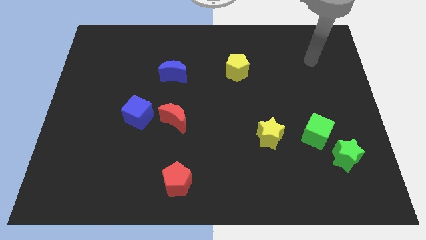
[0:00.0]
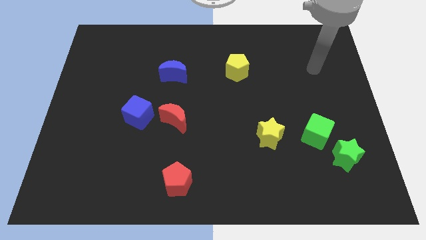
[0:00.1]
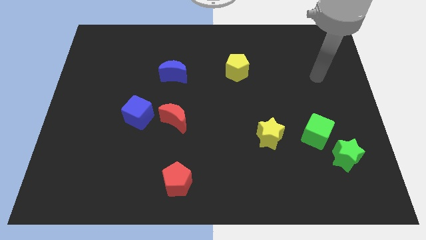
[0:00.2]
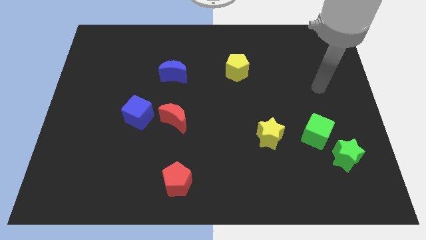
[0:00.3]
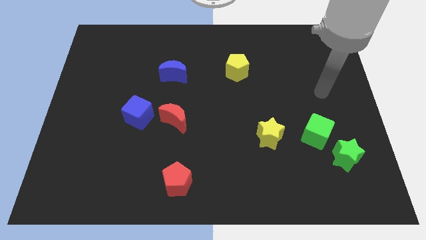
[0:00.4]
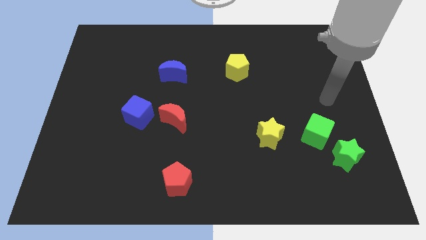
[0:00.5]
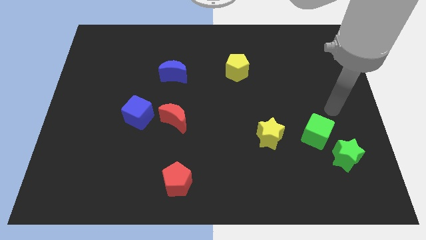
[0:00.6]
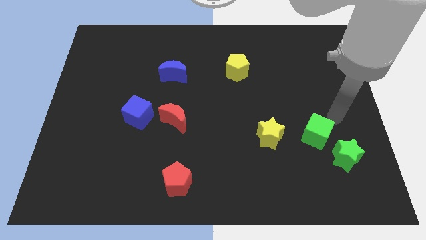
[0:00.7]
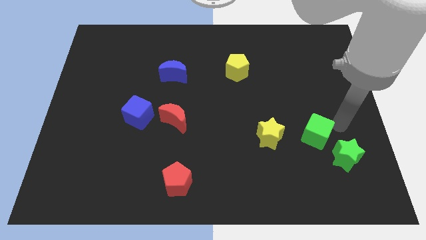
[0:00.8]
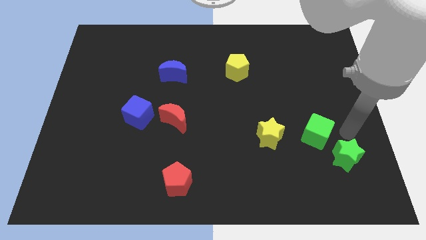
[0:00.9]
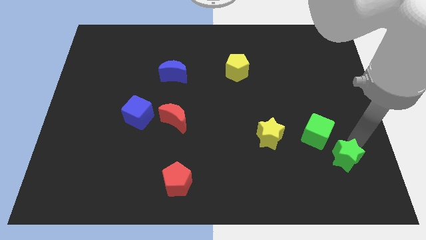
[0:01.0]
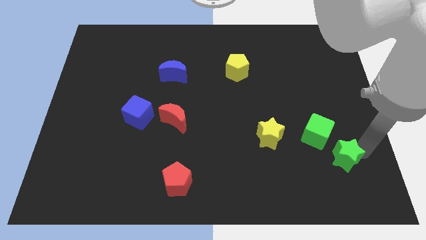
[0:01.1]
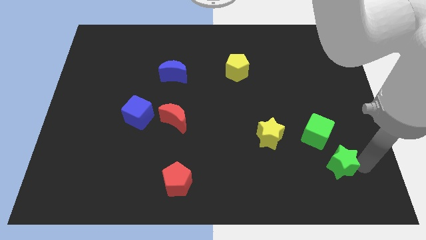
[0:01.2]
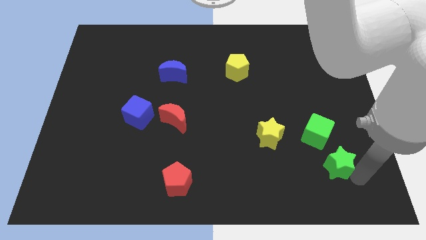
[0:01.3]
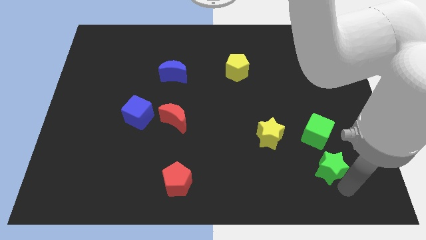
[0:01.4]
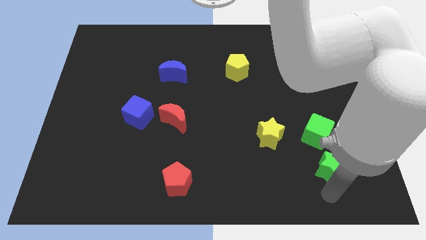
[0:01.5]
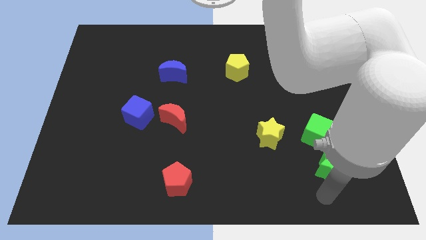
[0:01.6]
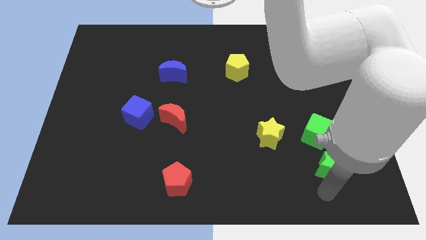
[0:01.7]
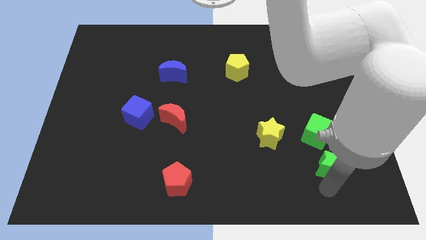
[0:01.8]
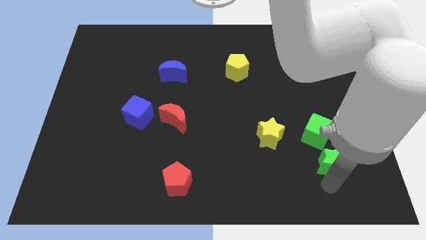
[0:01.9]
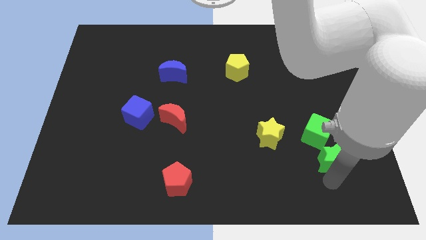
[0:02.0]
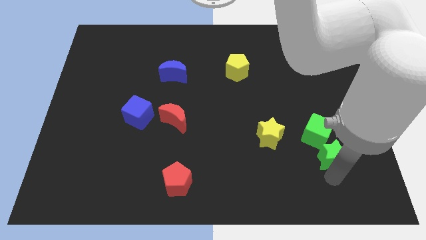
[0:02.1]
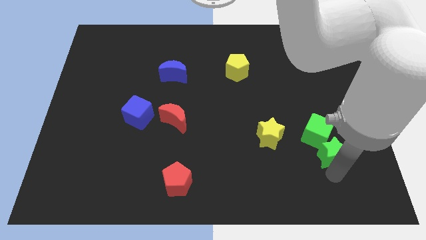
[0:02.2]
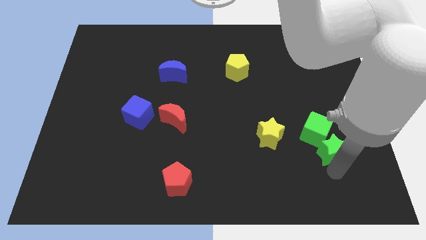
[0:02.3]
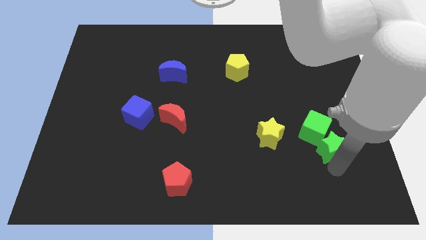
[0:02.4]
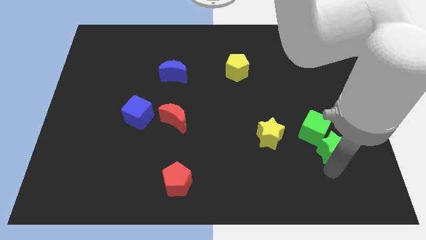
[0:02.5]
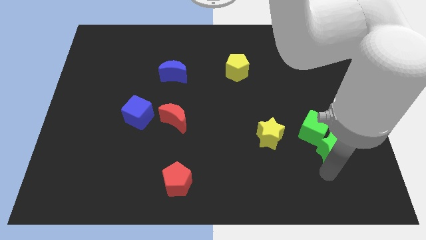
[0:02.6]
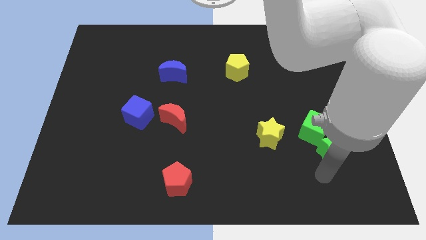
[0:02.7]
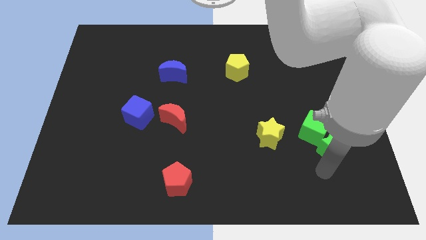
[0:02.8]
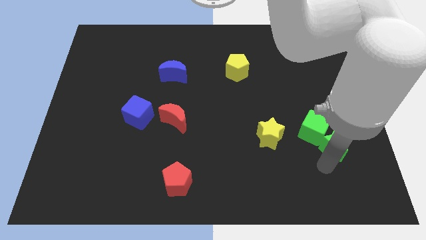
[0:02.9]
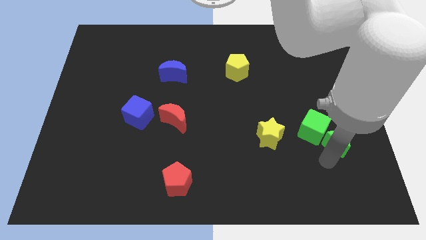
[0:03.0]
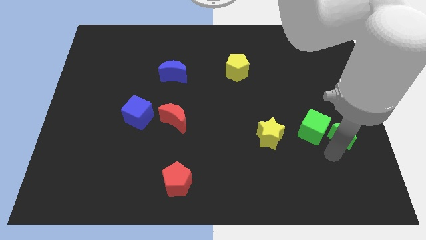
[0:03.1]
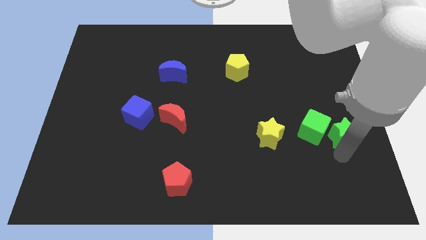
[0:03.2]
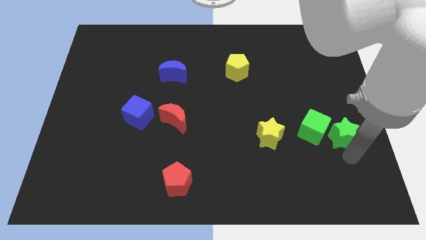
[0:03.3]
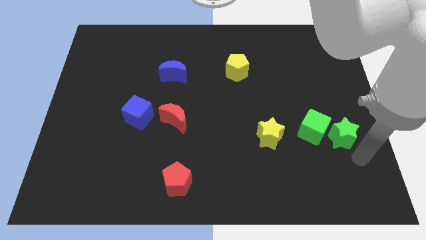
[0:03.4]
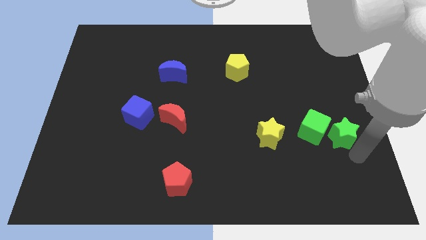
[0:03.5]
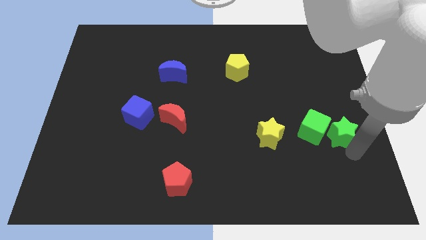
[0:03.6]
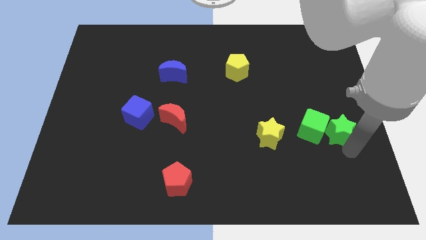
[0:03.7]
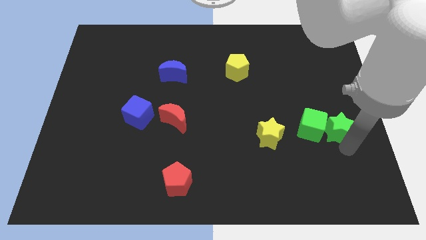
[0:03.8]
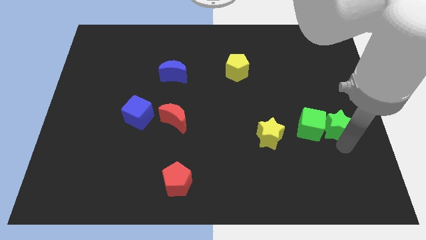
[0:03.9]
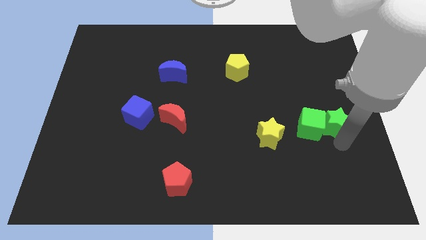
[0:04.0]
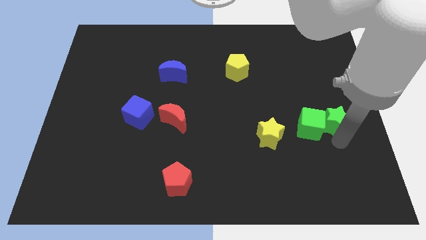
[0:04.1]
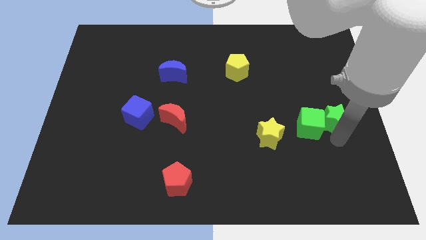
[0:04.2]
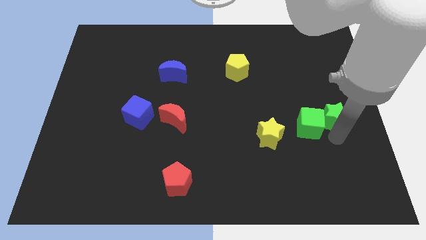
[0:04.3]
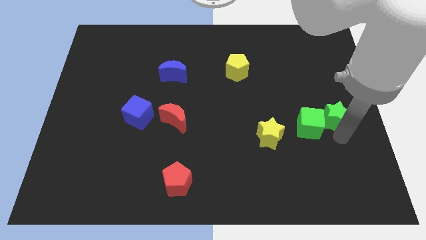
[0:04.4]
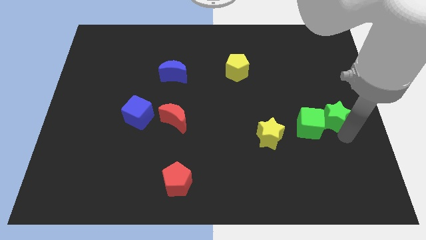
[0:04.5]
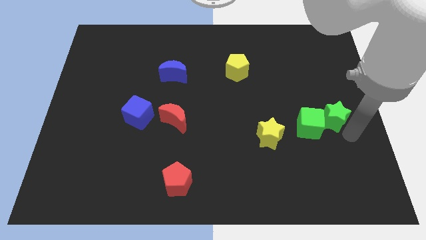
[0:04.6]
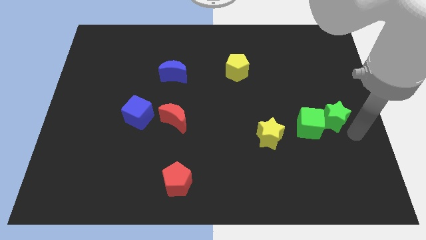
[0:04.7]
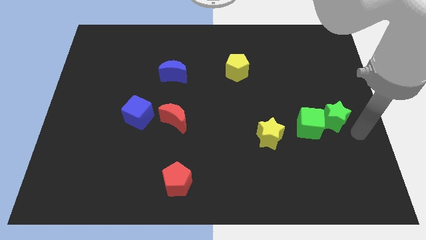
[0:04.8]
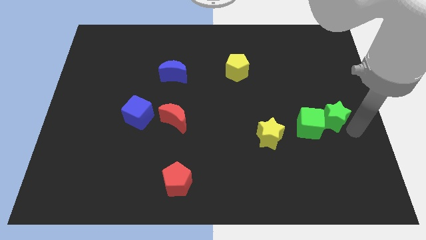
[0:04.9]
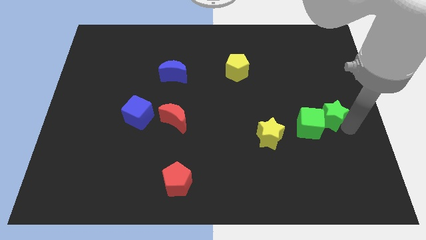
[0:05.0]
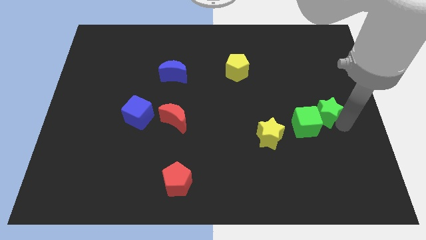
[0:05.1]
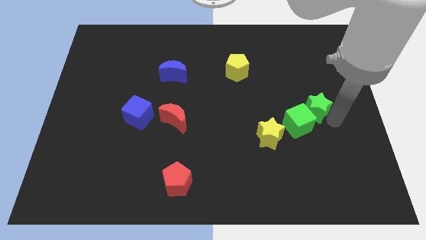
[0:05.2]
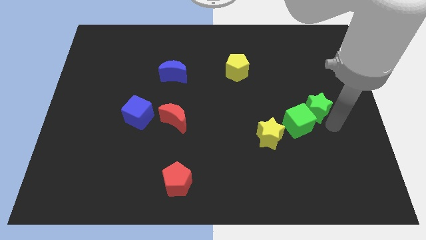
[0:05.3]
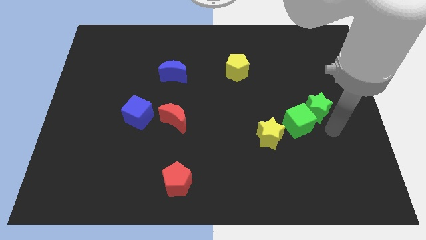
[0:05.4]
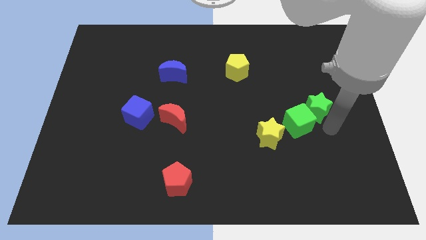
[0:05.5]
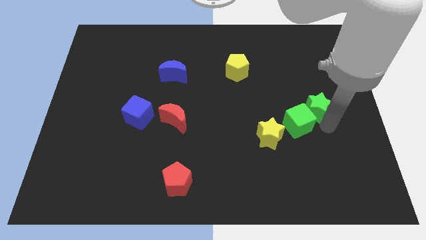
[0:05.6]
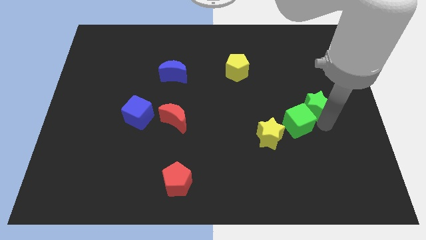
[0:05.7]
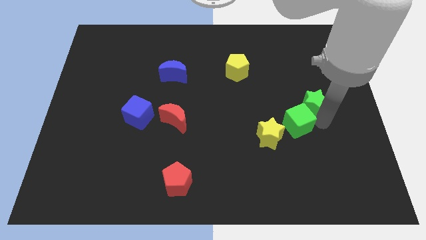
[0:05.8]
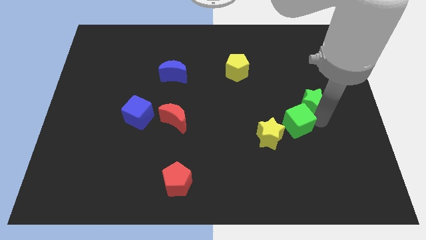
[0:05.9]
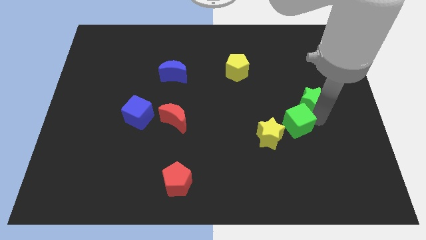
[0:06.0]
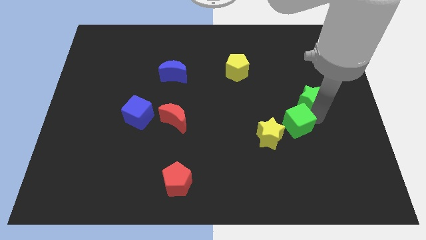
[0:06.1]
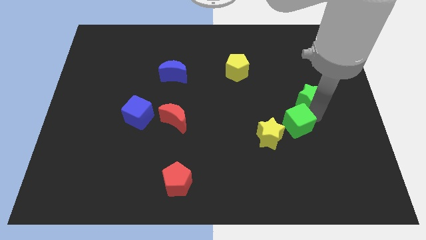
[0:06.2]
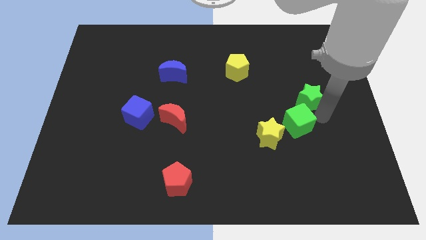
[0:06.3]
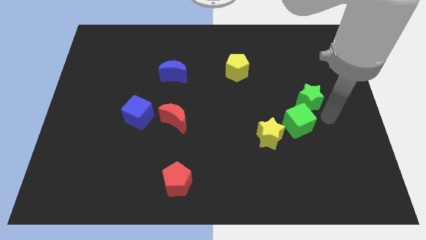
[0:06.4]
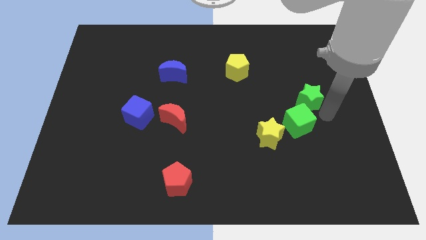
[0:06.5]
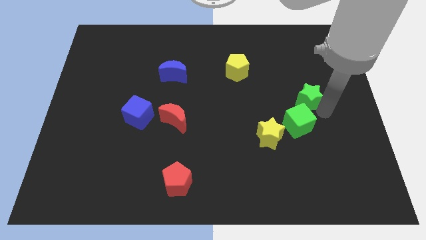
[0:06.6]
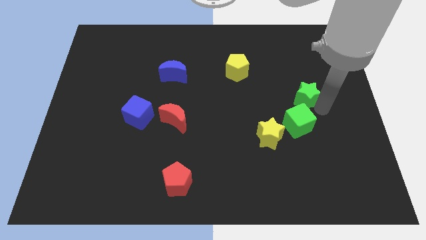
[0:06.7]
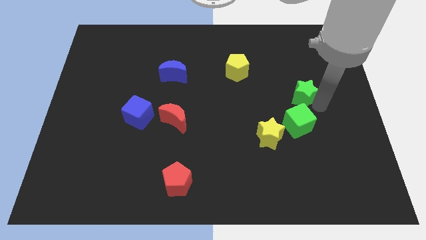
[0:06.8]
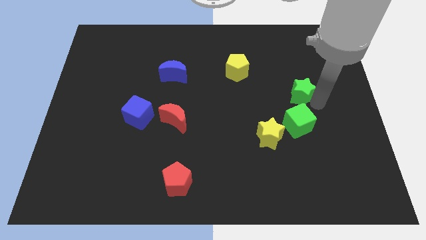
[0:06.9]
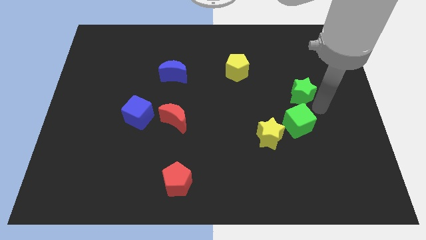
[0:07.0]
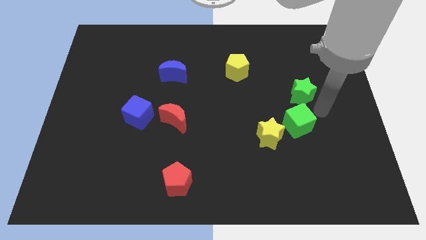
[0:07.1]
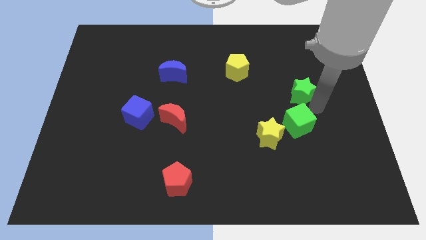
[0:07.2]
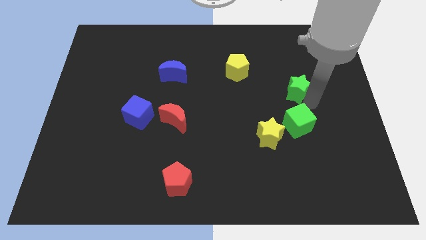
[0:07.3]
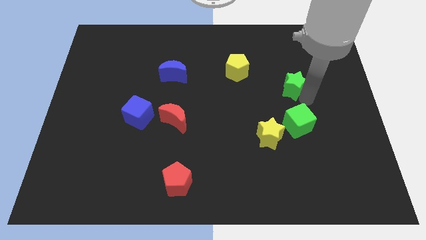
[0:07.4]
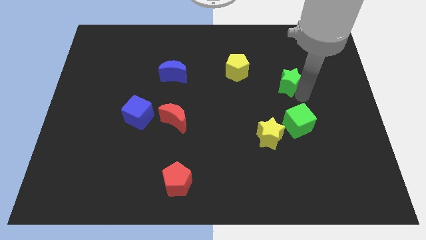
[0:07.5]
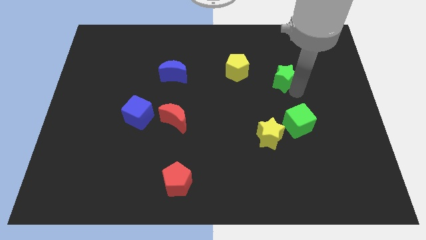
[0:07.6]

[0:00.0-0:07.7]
push the green star to the right side of the yellow pentagon

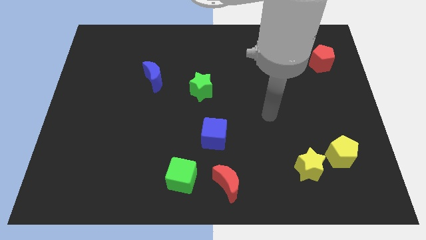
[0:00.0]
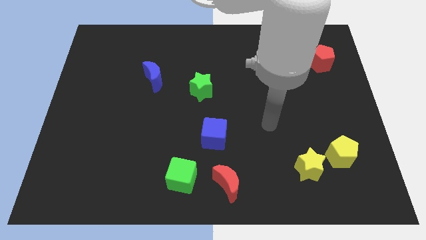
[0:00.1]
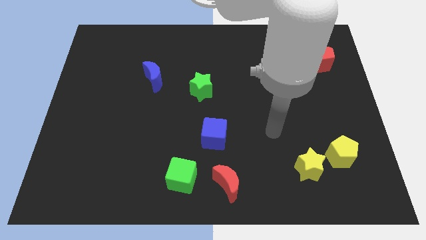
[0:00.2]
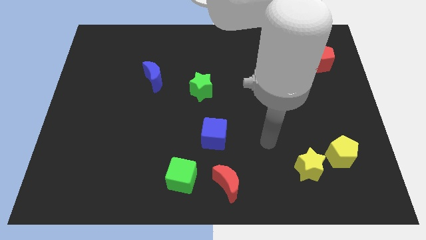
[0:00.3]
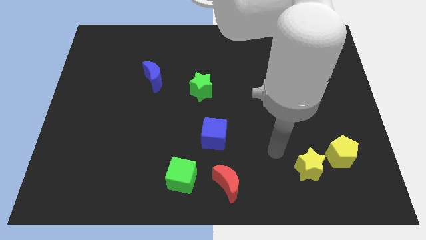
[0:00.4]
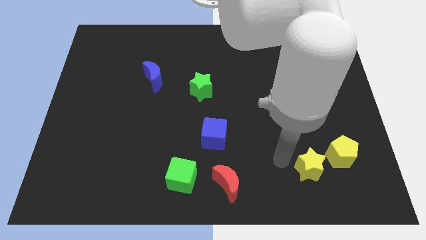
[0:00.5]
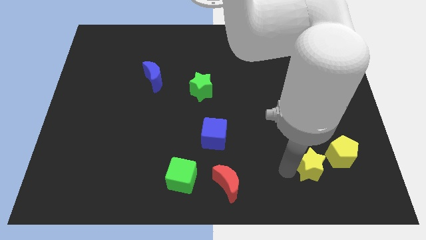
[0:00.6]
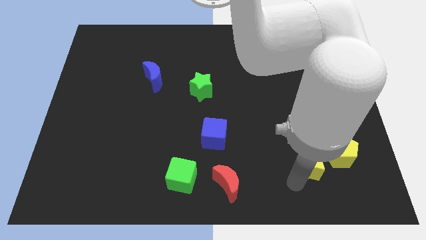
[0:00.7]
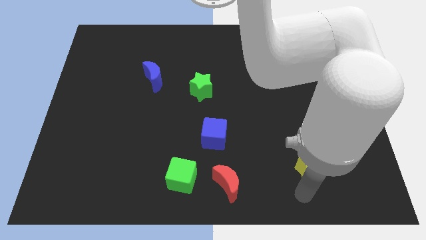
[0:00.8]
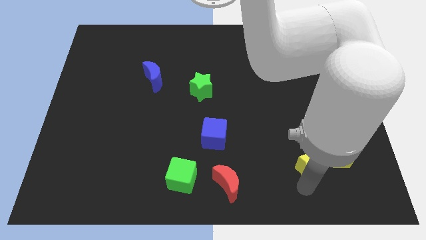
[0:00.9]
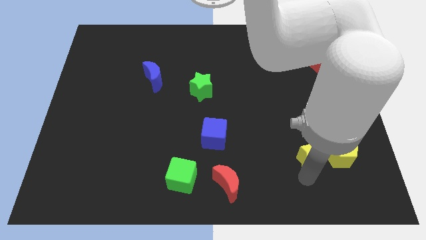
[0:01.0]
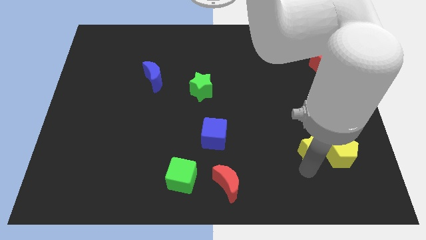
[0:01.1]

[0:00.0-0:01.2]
push the yellow star to the top left of the yellow pentagon
